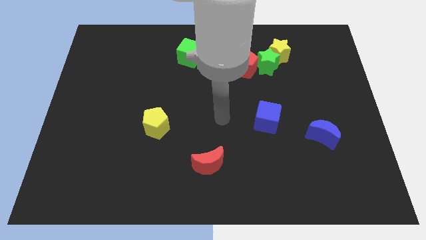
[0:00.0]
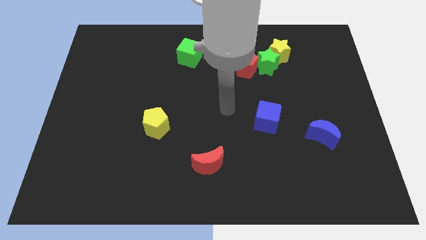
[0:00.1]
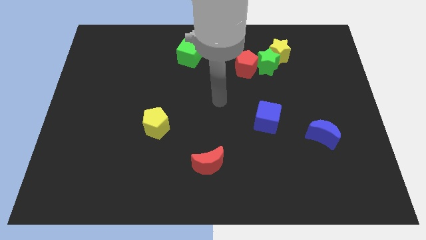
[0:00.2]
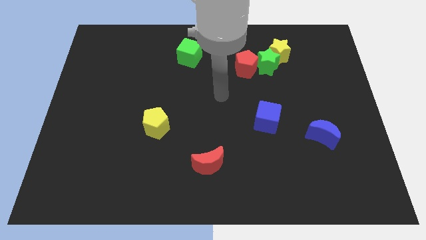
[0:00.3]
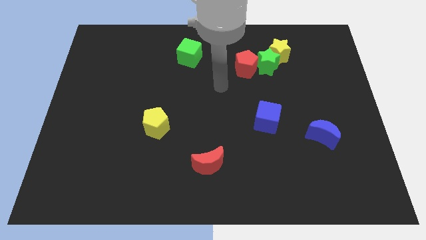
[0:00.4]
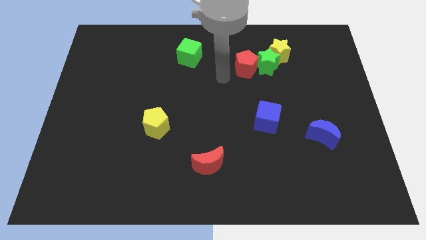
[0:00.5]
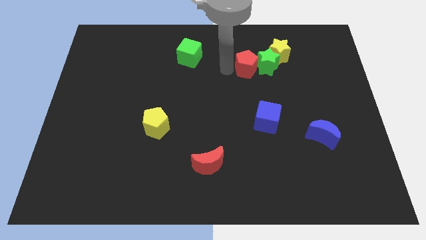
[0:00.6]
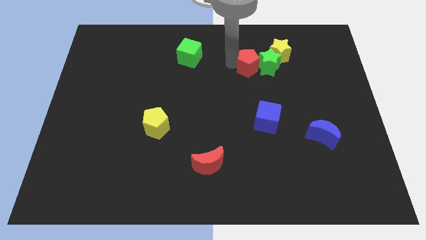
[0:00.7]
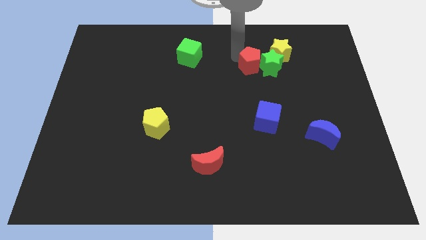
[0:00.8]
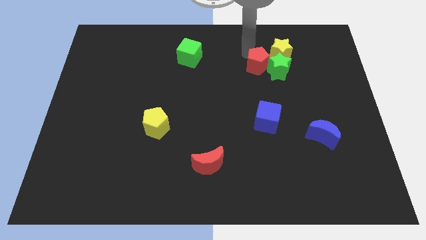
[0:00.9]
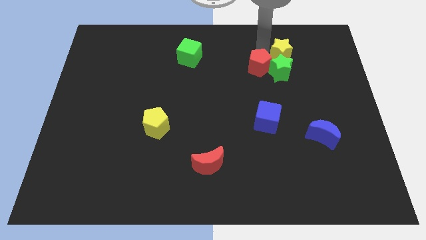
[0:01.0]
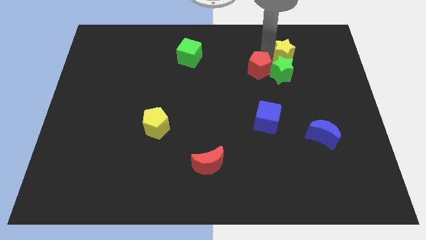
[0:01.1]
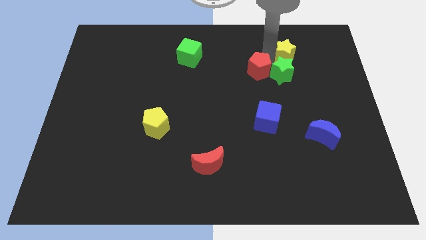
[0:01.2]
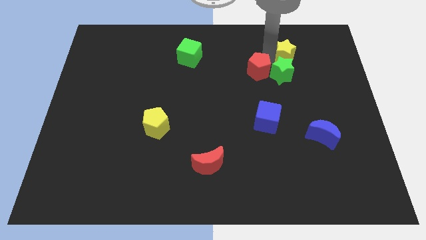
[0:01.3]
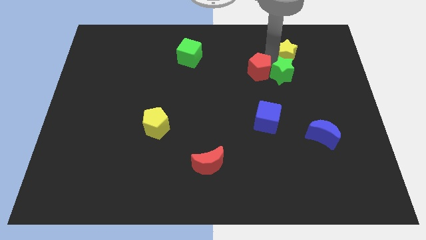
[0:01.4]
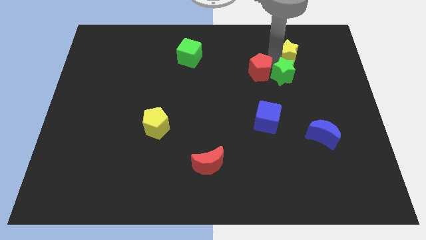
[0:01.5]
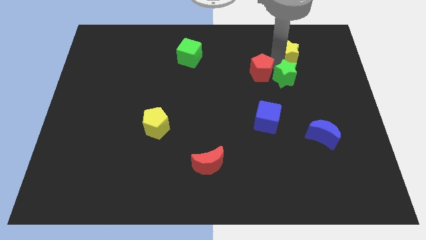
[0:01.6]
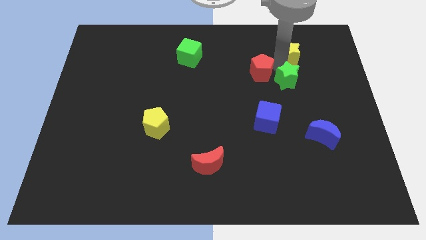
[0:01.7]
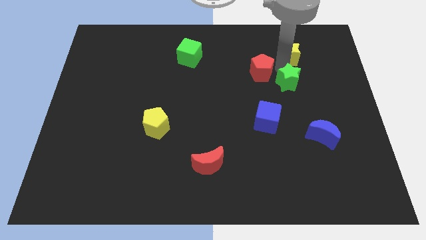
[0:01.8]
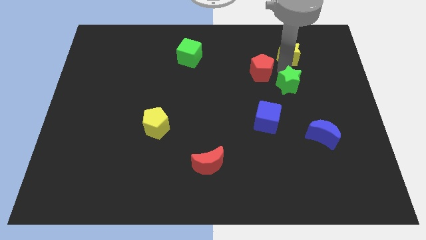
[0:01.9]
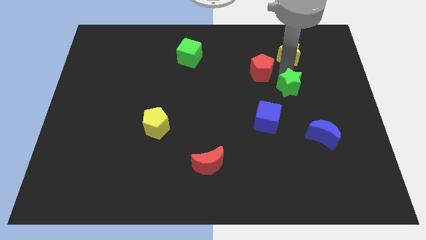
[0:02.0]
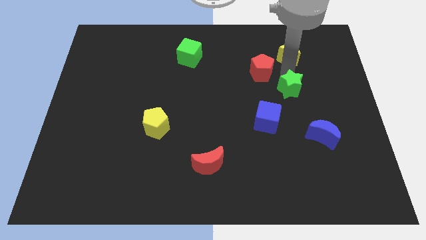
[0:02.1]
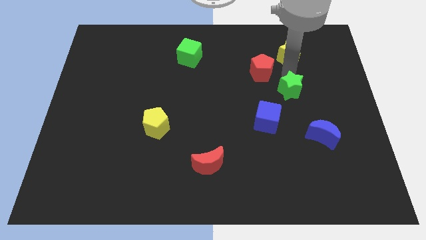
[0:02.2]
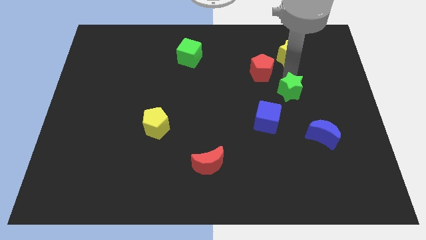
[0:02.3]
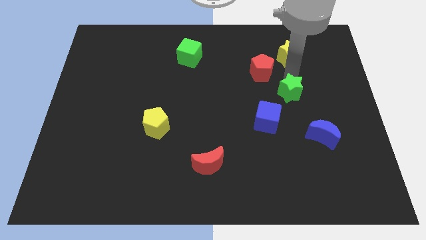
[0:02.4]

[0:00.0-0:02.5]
move the green star away from the yellow star and red pentagon

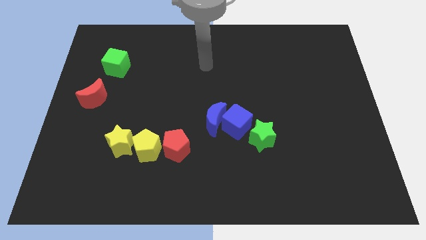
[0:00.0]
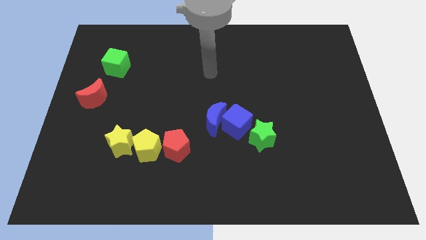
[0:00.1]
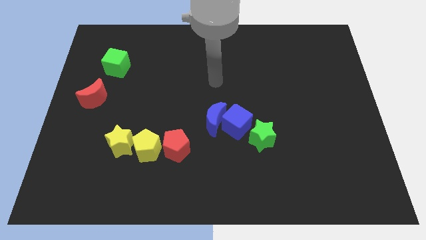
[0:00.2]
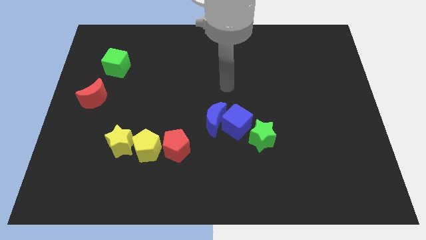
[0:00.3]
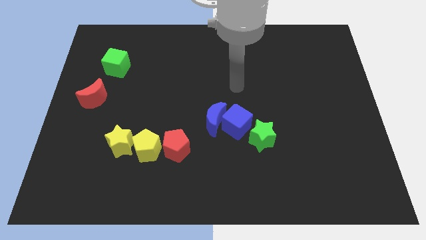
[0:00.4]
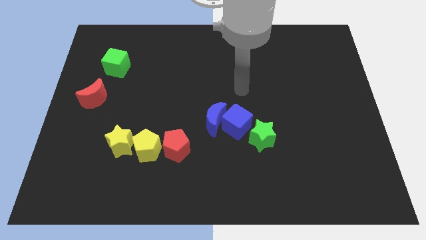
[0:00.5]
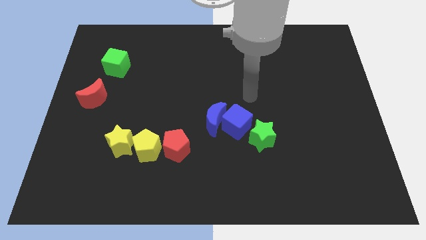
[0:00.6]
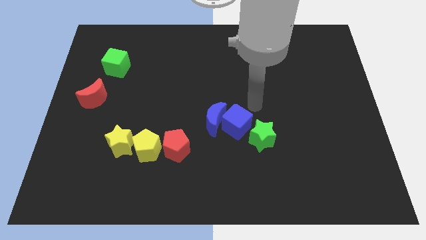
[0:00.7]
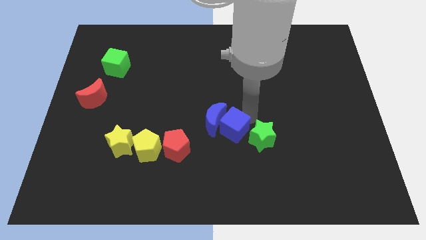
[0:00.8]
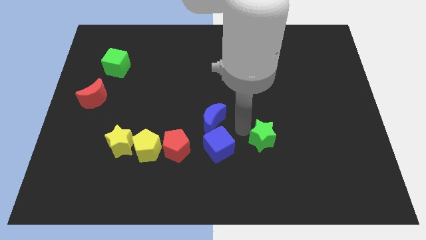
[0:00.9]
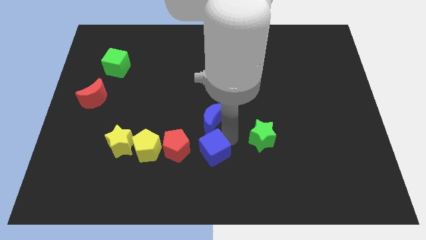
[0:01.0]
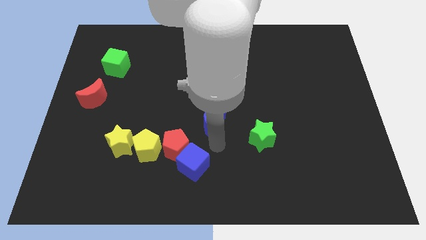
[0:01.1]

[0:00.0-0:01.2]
pull the blue moon apart from the blue cube

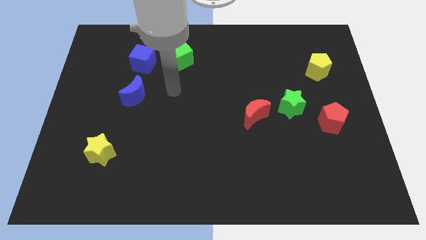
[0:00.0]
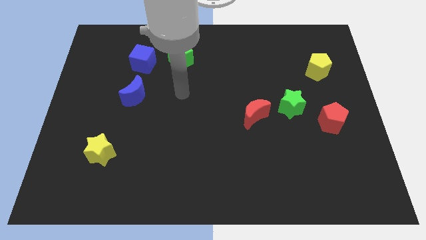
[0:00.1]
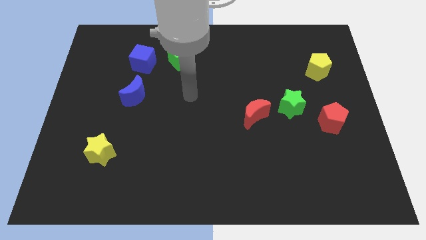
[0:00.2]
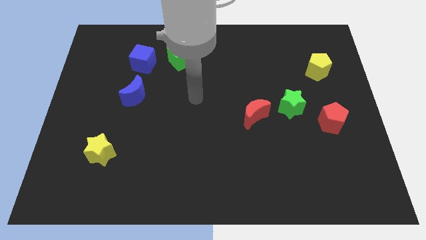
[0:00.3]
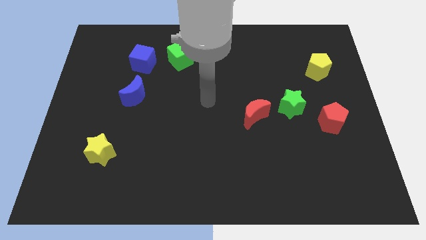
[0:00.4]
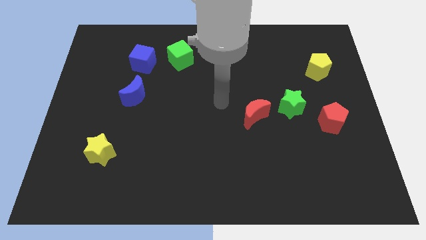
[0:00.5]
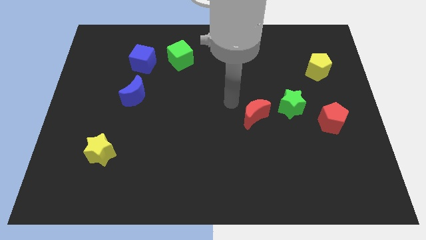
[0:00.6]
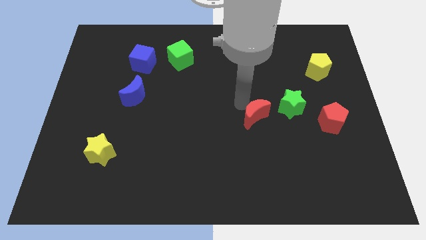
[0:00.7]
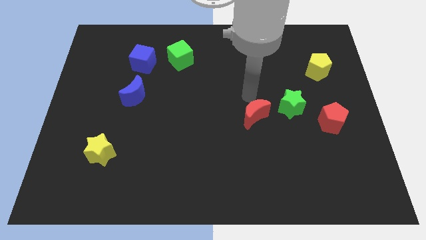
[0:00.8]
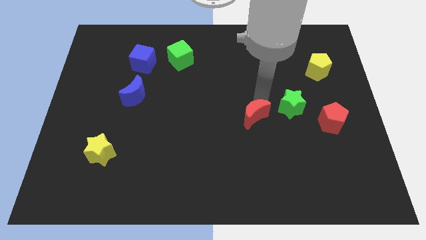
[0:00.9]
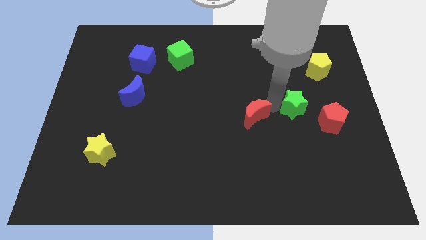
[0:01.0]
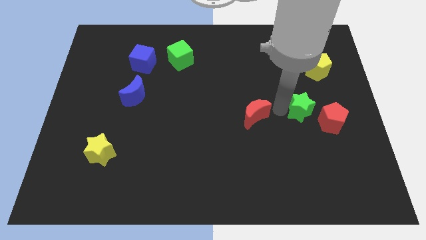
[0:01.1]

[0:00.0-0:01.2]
move the red moon away from the green star

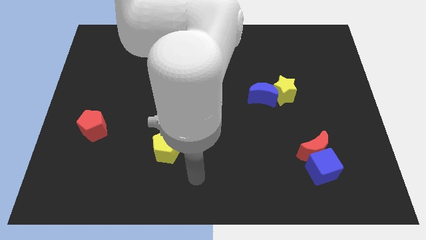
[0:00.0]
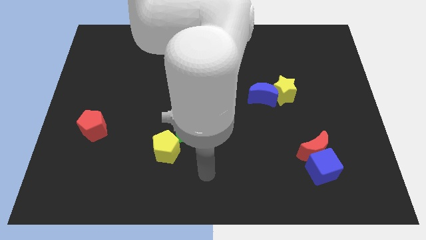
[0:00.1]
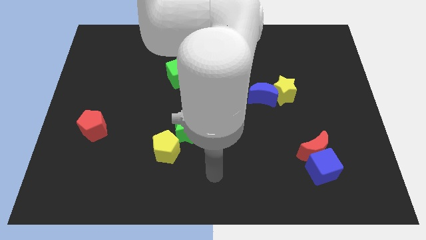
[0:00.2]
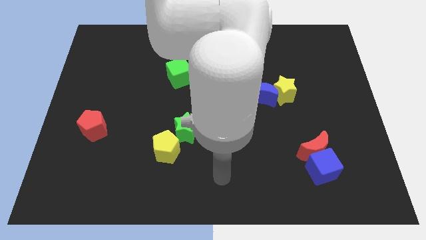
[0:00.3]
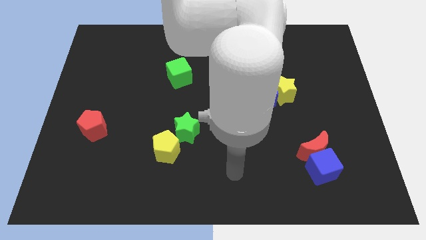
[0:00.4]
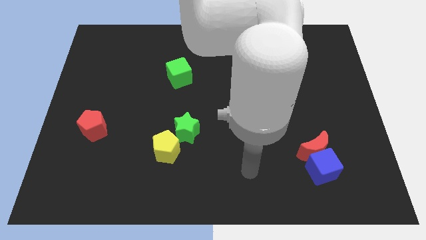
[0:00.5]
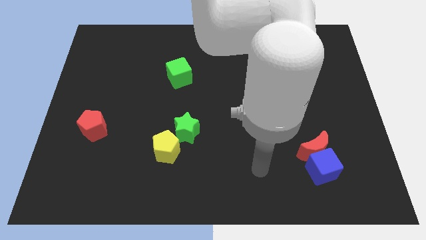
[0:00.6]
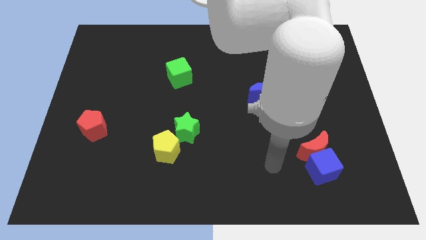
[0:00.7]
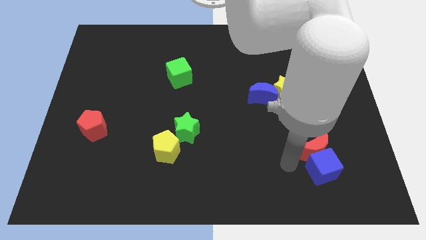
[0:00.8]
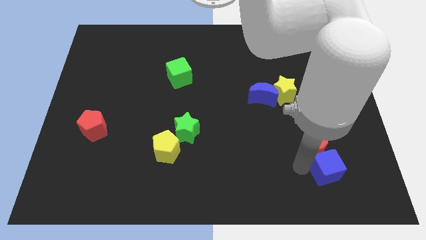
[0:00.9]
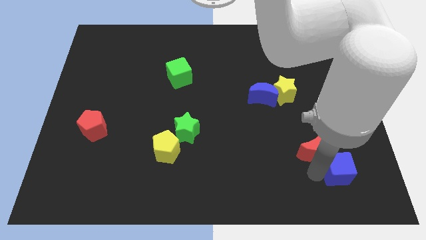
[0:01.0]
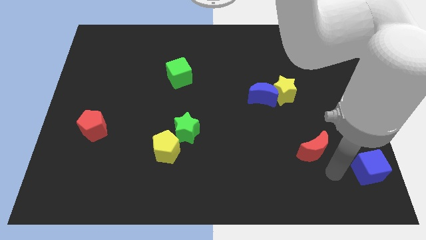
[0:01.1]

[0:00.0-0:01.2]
move the red moon away from the blue cube

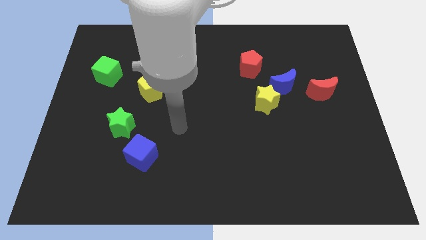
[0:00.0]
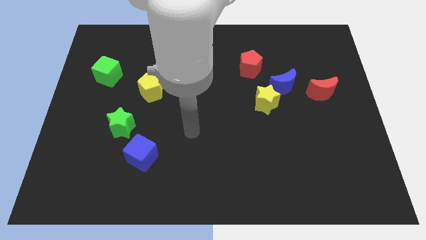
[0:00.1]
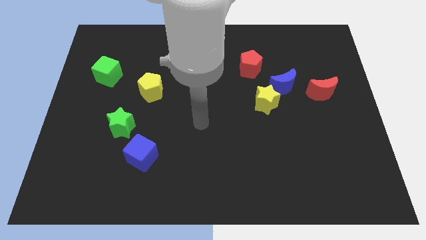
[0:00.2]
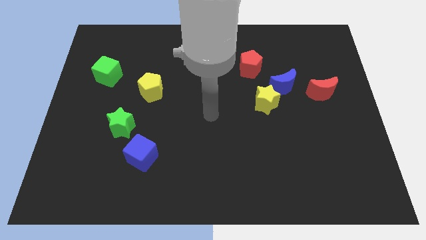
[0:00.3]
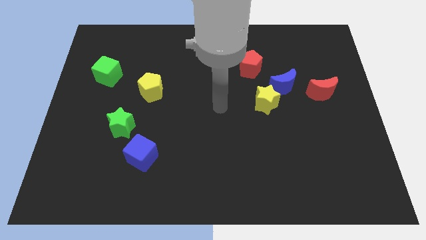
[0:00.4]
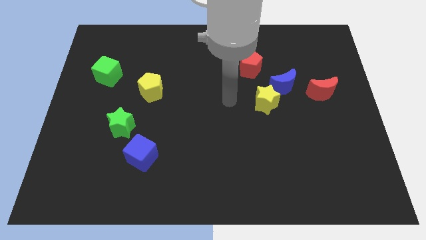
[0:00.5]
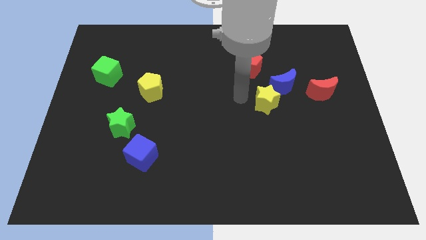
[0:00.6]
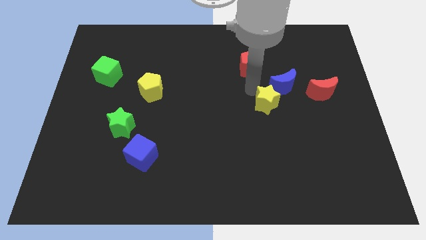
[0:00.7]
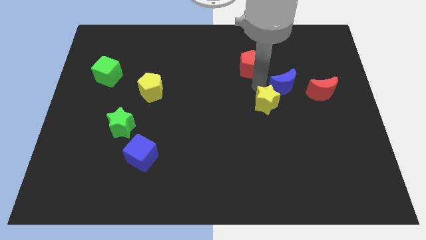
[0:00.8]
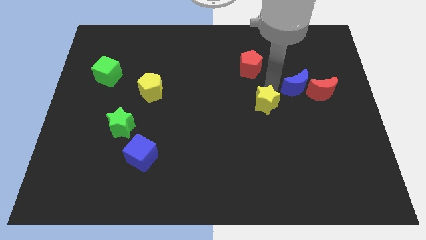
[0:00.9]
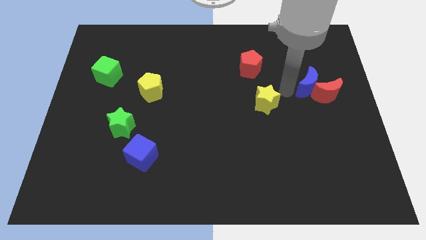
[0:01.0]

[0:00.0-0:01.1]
separate the yellow star from the blue moon

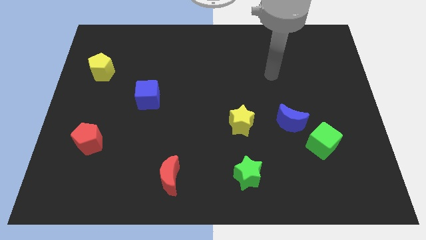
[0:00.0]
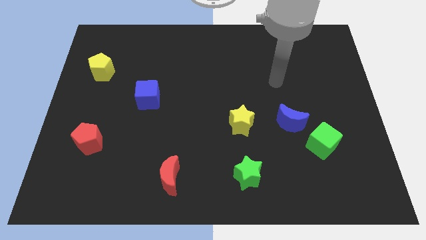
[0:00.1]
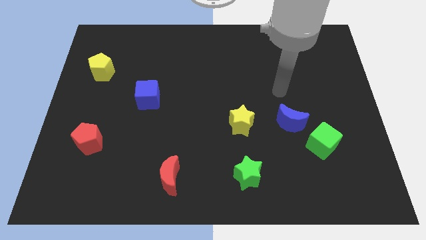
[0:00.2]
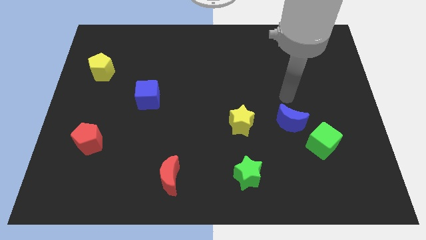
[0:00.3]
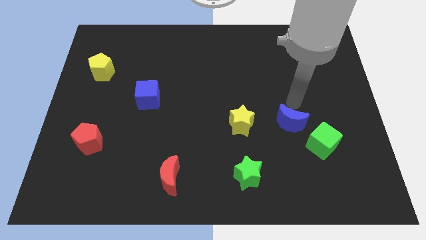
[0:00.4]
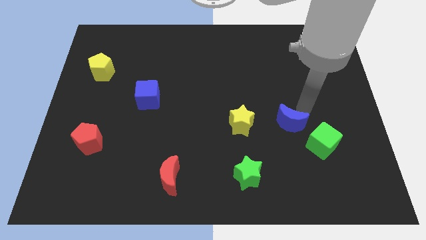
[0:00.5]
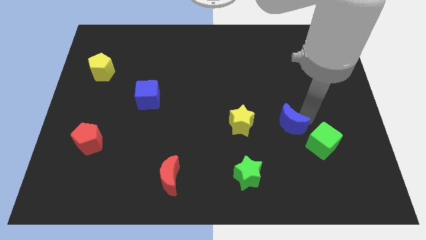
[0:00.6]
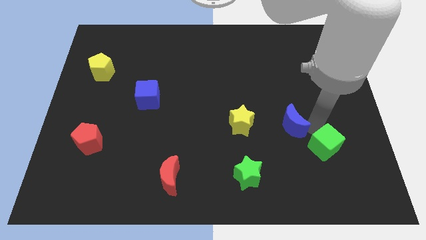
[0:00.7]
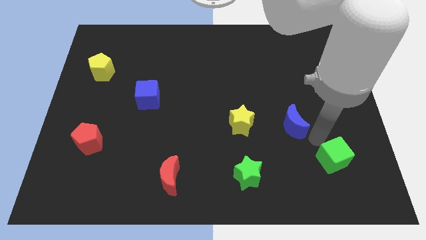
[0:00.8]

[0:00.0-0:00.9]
pull the blue moon apart from the green cube

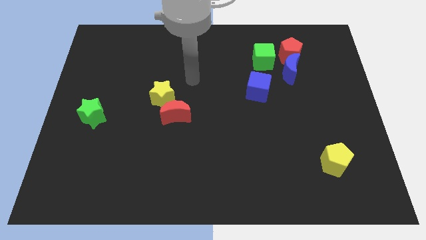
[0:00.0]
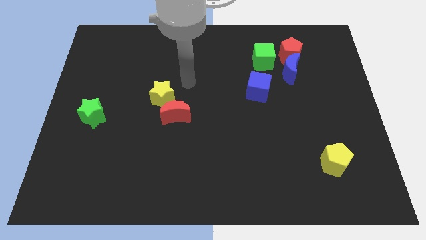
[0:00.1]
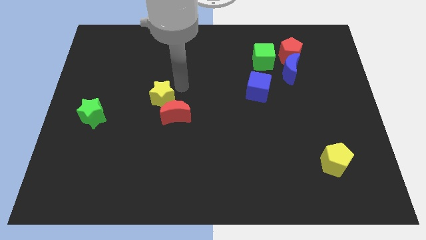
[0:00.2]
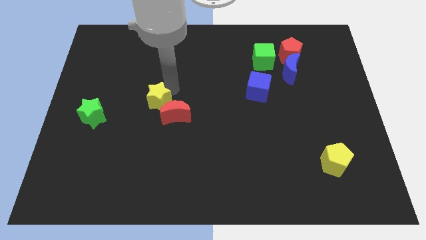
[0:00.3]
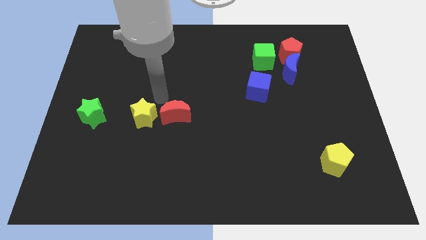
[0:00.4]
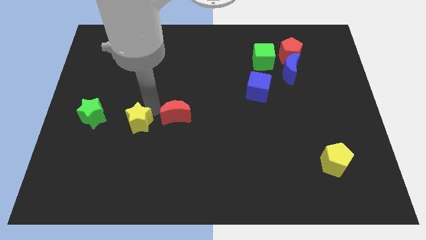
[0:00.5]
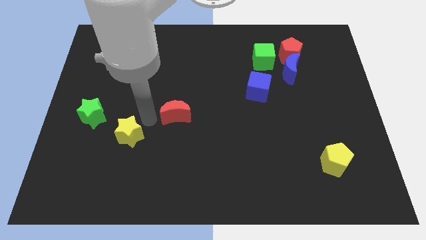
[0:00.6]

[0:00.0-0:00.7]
move the red moon away from the yellow star

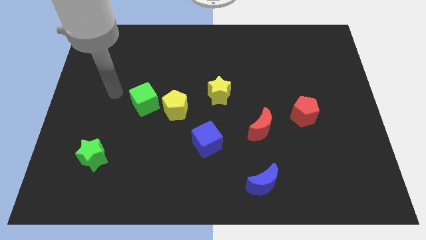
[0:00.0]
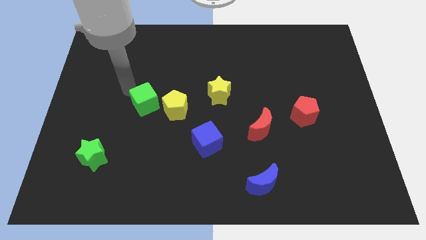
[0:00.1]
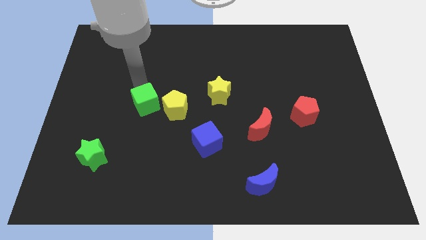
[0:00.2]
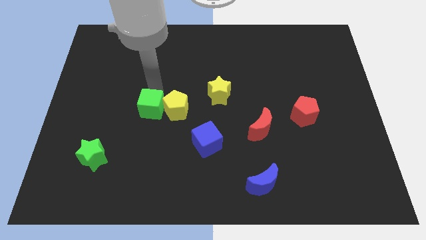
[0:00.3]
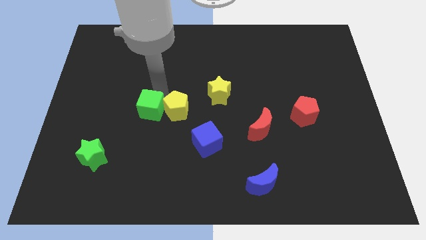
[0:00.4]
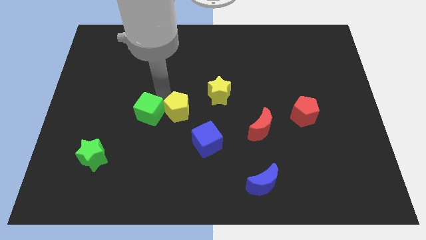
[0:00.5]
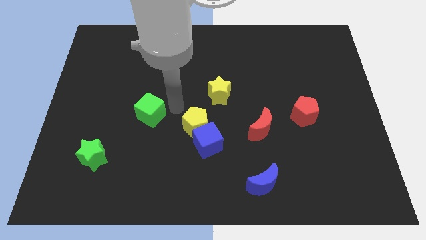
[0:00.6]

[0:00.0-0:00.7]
separate the green cube from the yellow pentagon
